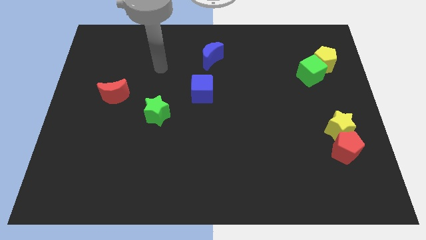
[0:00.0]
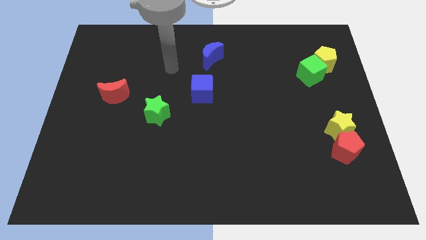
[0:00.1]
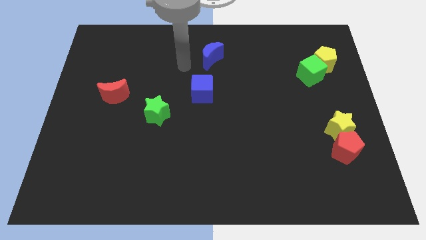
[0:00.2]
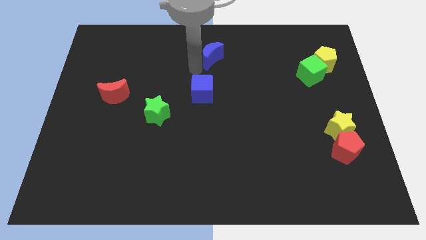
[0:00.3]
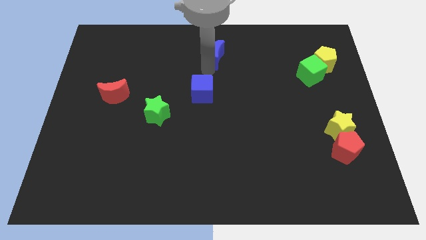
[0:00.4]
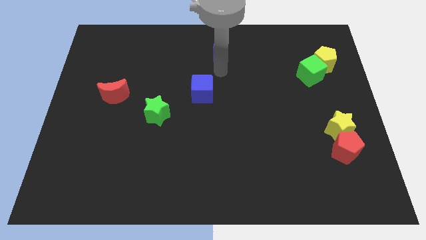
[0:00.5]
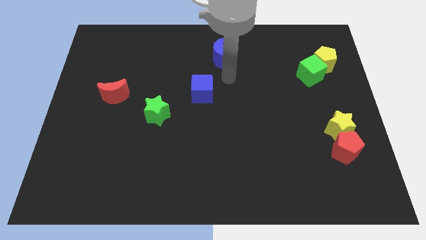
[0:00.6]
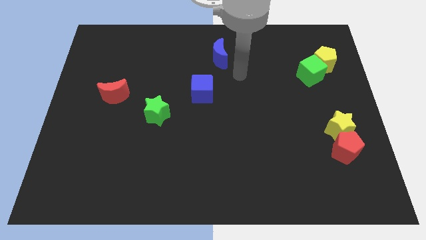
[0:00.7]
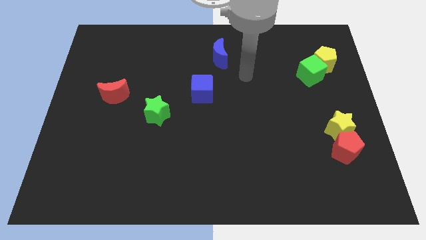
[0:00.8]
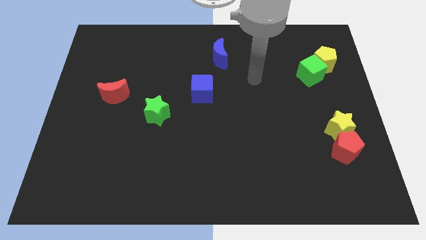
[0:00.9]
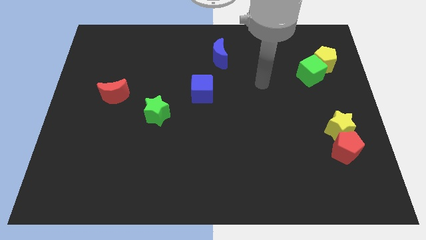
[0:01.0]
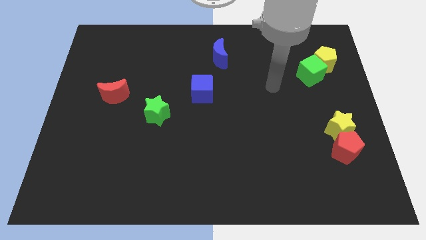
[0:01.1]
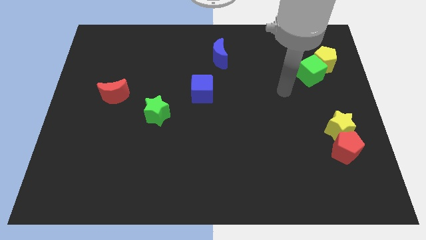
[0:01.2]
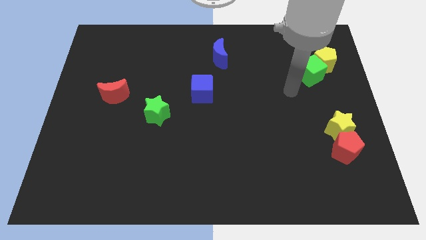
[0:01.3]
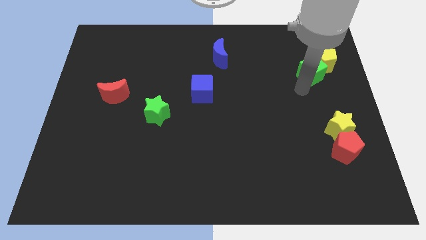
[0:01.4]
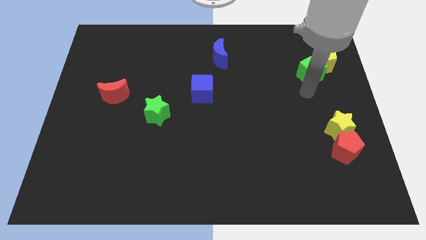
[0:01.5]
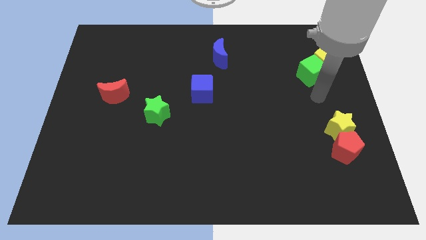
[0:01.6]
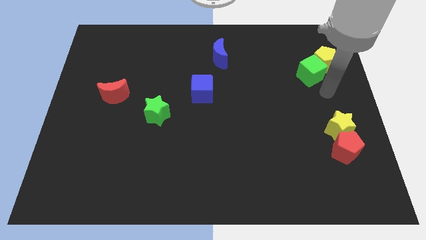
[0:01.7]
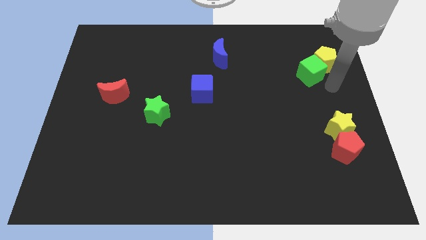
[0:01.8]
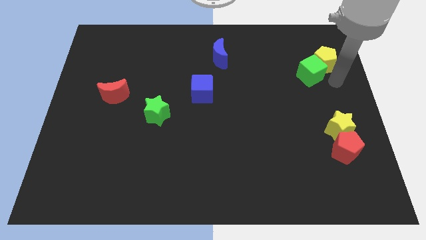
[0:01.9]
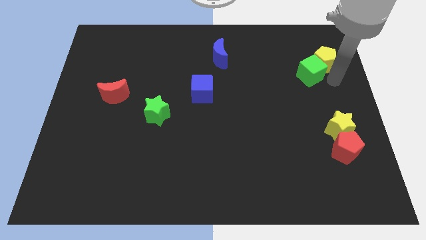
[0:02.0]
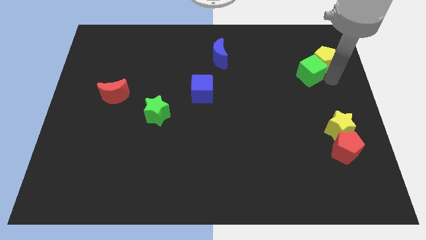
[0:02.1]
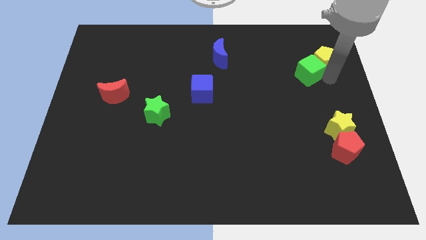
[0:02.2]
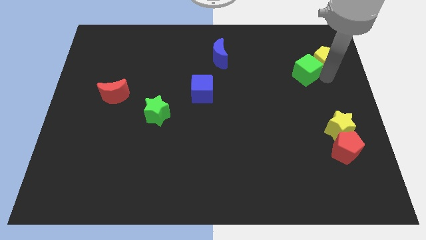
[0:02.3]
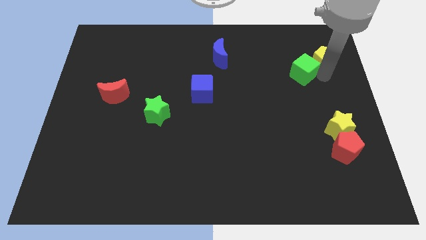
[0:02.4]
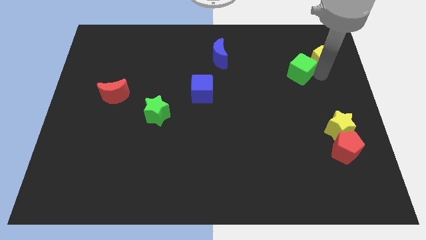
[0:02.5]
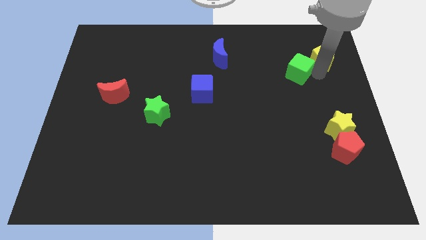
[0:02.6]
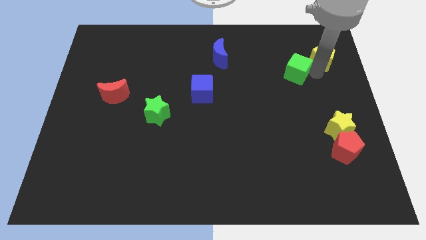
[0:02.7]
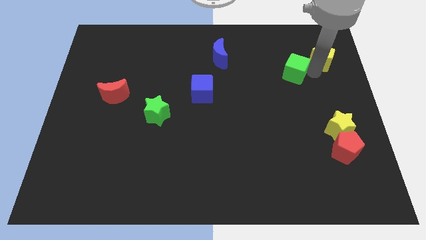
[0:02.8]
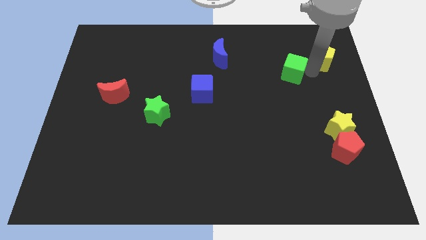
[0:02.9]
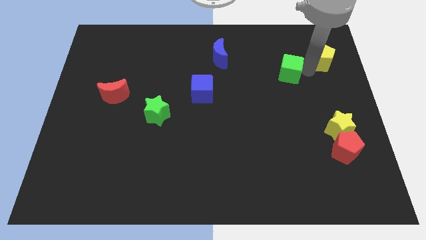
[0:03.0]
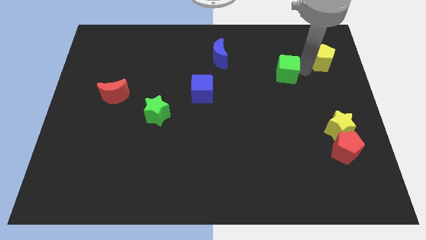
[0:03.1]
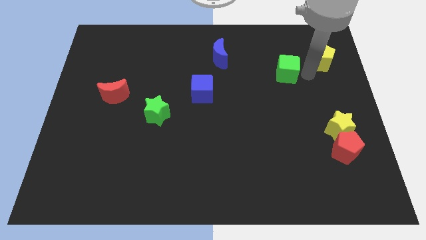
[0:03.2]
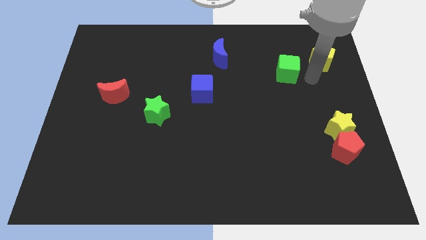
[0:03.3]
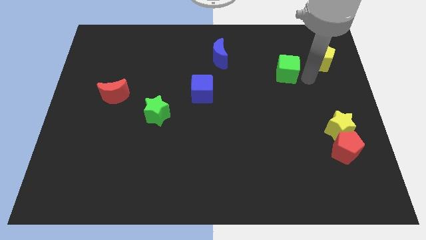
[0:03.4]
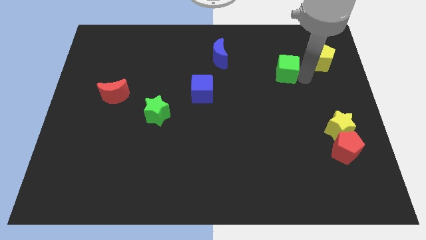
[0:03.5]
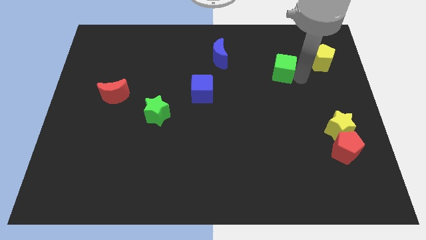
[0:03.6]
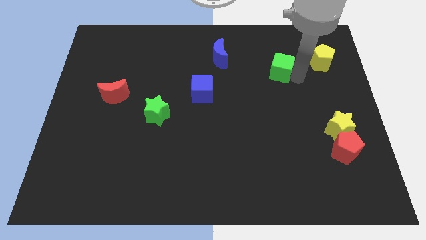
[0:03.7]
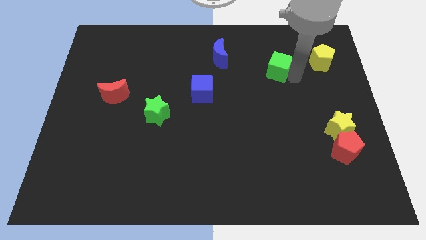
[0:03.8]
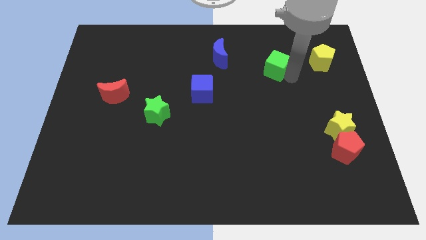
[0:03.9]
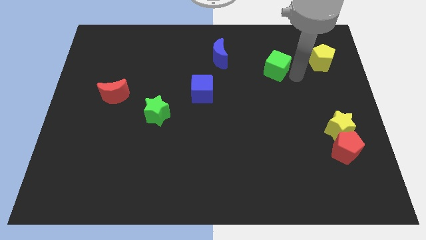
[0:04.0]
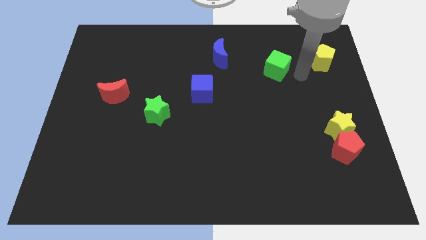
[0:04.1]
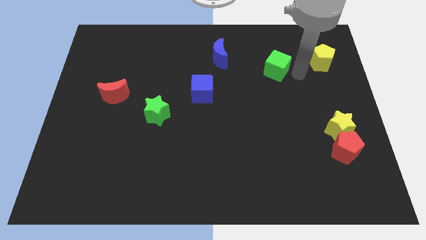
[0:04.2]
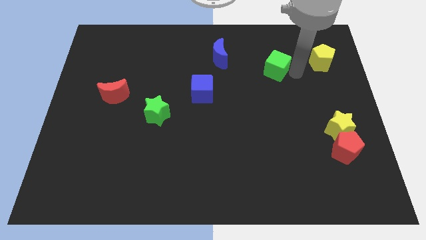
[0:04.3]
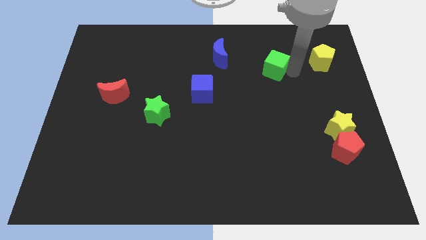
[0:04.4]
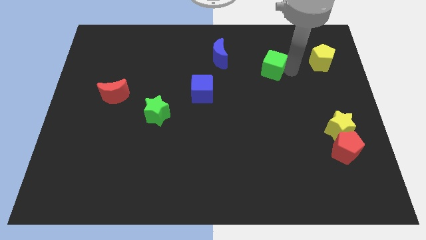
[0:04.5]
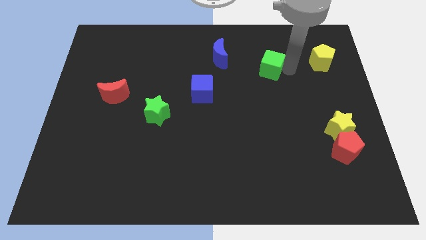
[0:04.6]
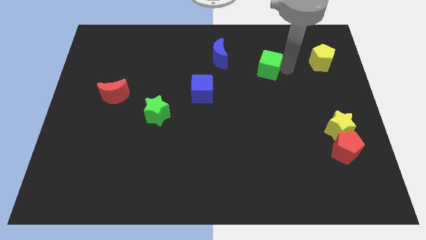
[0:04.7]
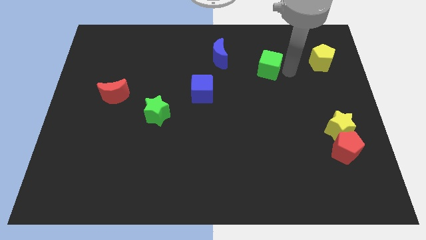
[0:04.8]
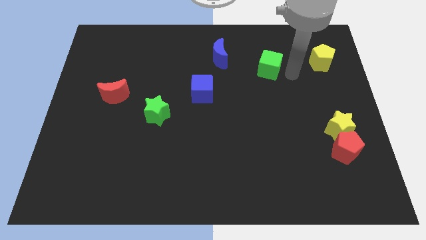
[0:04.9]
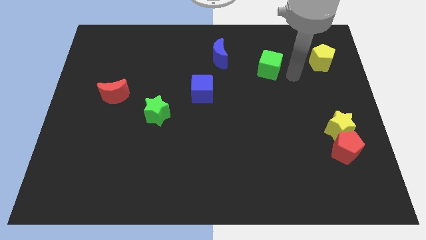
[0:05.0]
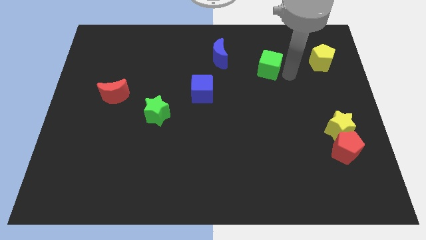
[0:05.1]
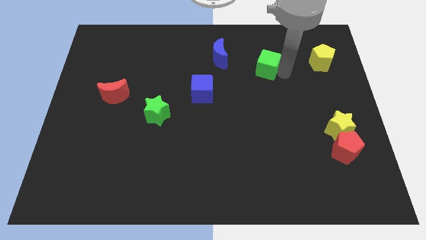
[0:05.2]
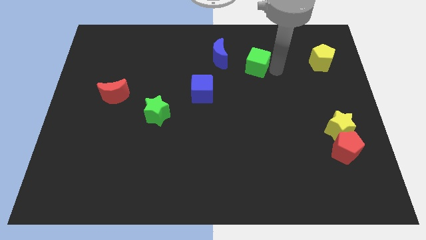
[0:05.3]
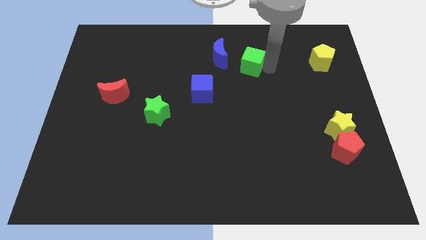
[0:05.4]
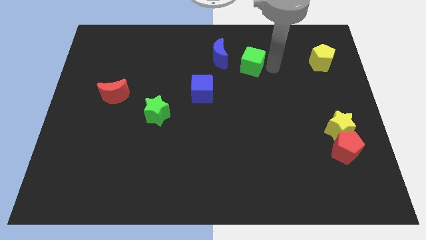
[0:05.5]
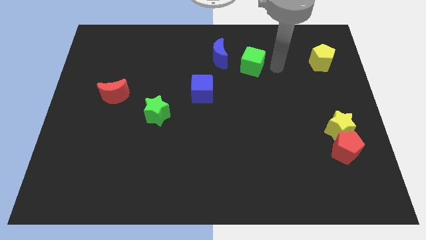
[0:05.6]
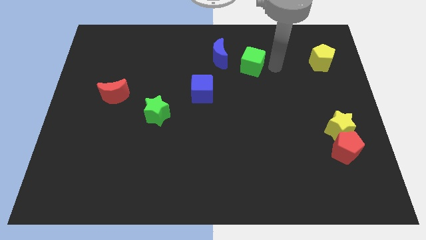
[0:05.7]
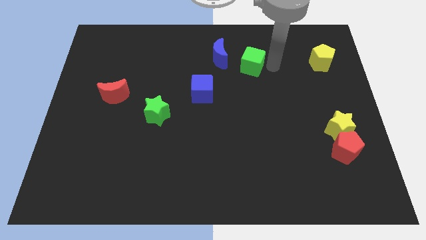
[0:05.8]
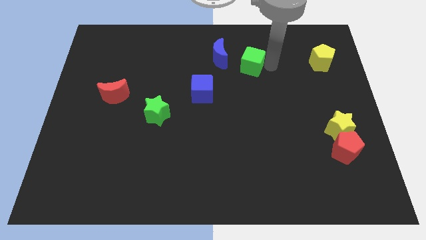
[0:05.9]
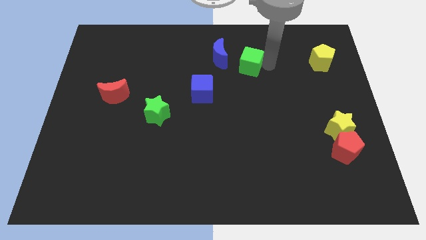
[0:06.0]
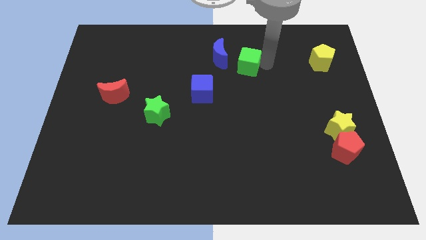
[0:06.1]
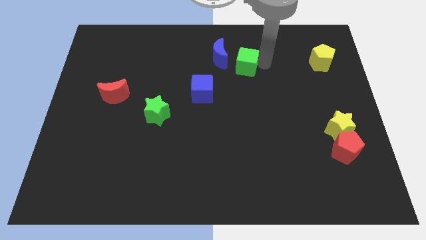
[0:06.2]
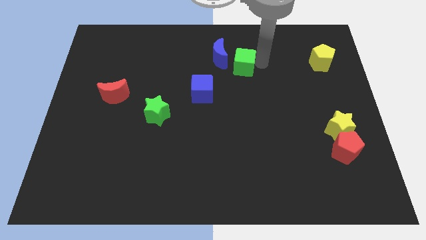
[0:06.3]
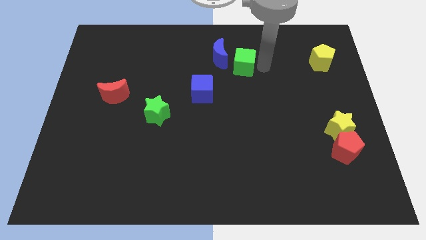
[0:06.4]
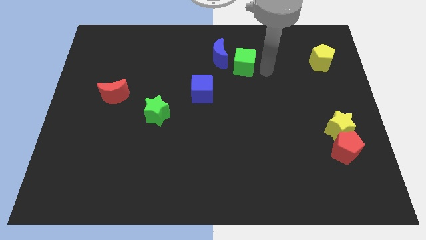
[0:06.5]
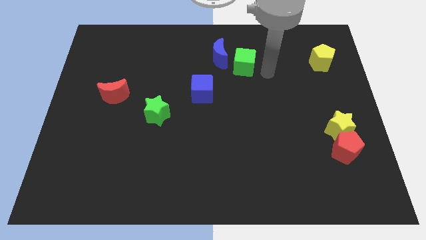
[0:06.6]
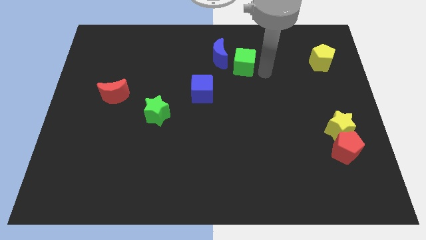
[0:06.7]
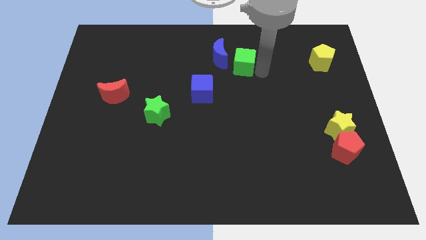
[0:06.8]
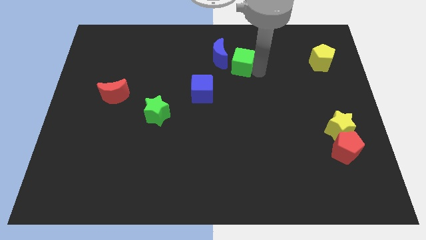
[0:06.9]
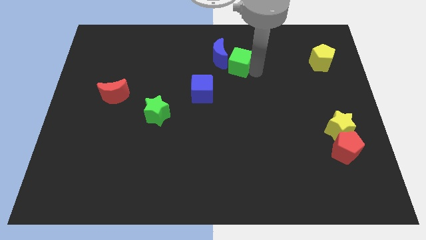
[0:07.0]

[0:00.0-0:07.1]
slide the green cube close to the blue moon

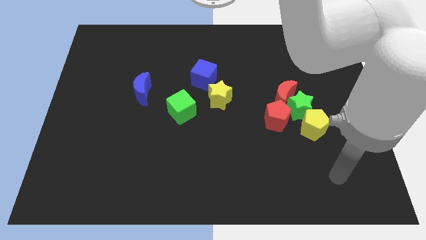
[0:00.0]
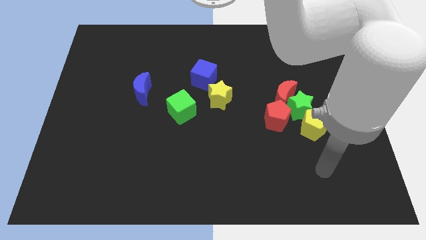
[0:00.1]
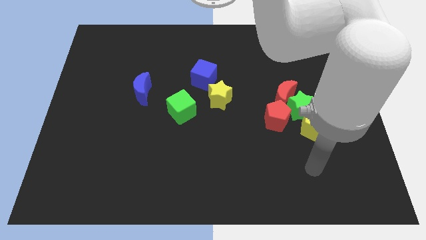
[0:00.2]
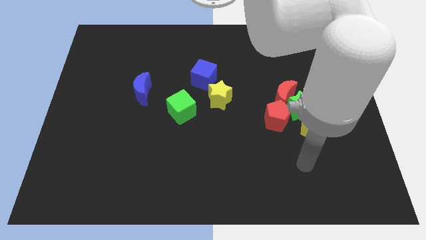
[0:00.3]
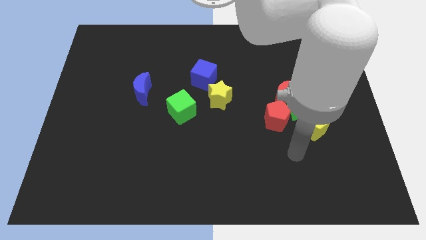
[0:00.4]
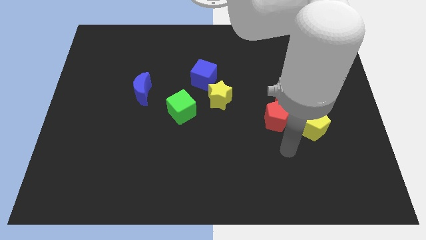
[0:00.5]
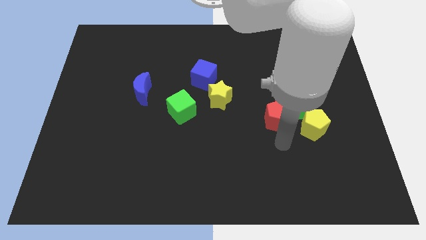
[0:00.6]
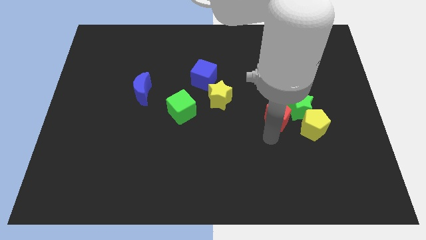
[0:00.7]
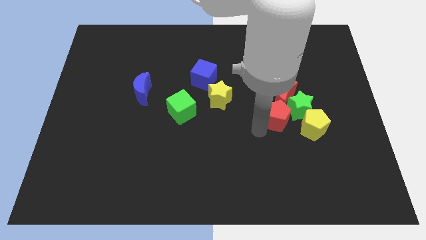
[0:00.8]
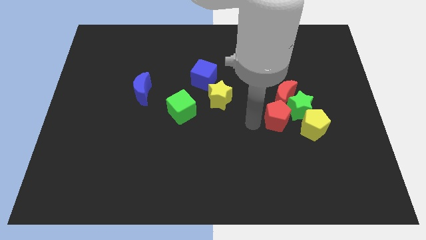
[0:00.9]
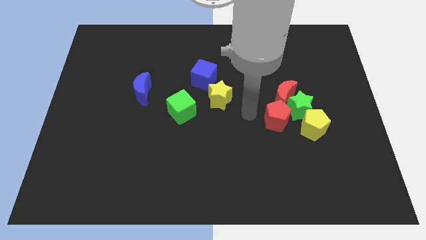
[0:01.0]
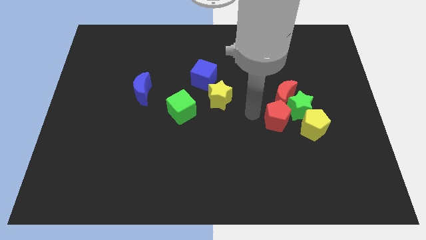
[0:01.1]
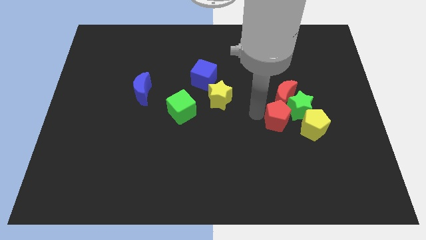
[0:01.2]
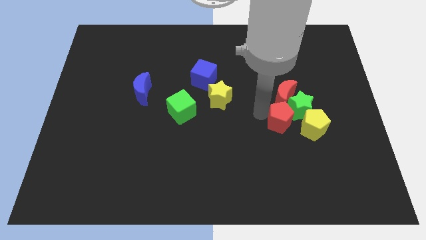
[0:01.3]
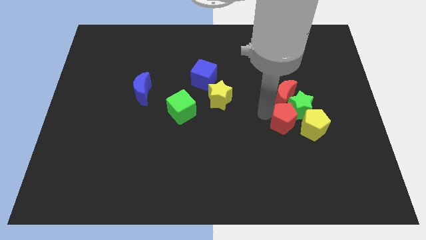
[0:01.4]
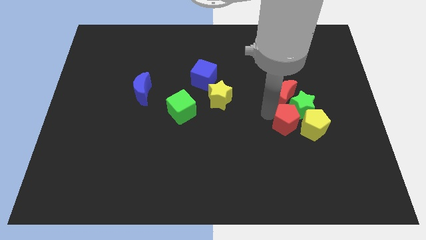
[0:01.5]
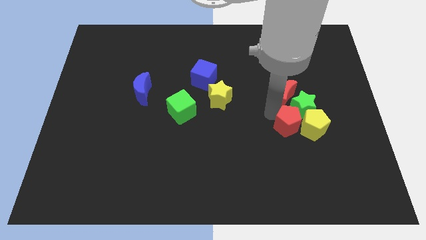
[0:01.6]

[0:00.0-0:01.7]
slide the red pentagon to the yellow pentagon
